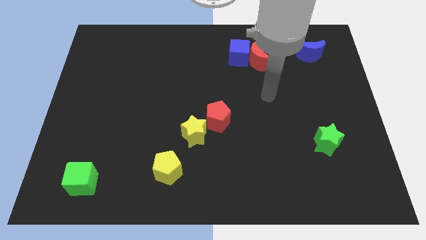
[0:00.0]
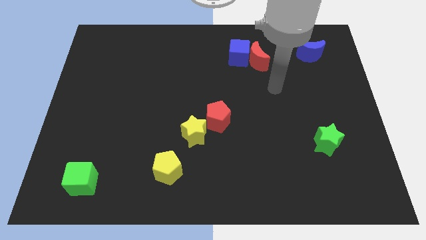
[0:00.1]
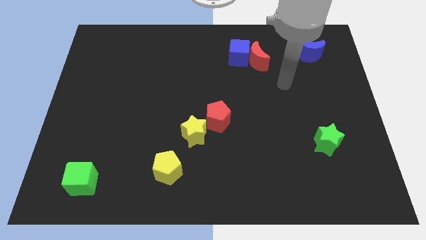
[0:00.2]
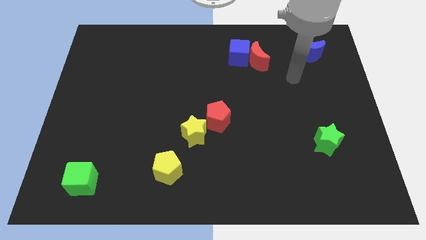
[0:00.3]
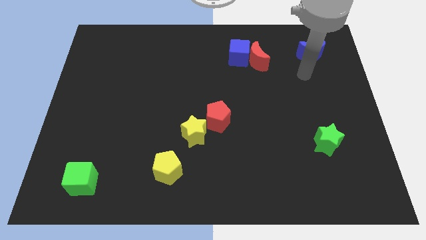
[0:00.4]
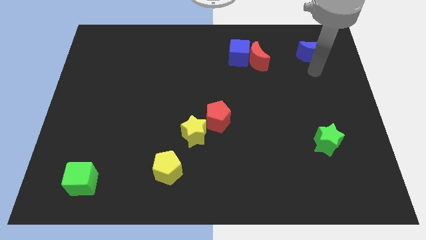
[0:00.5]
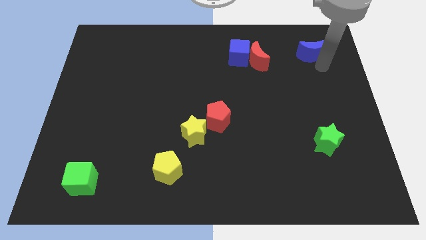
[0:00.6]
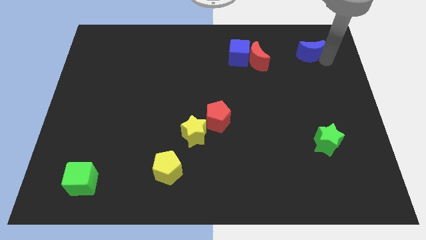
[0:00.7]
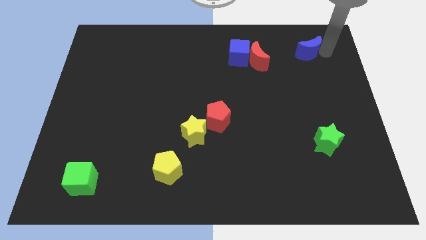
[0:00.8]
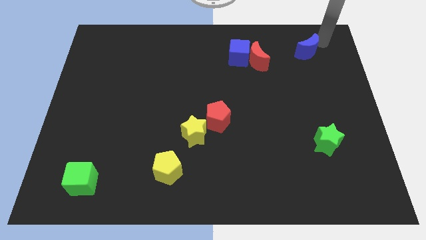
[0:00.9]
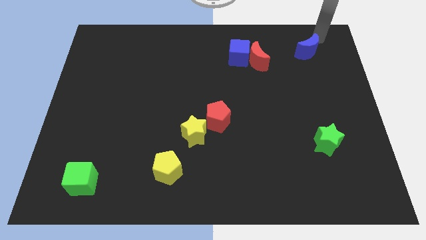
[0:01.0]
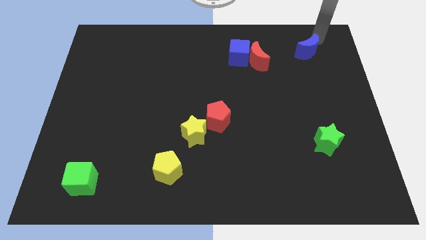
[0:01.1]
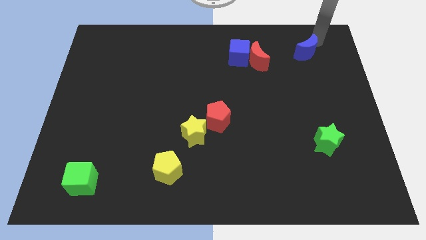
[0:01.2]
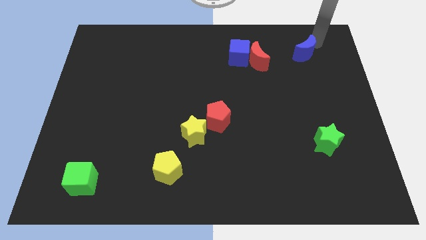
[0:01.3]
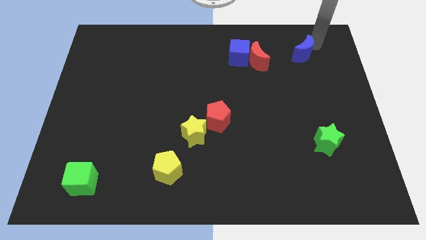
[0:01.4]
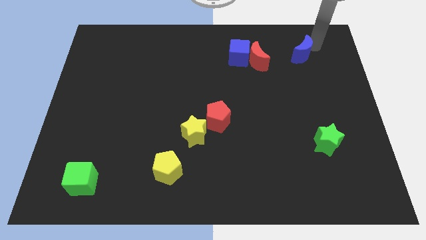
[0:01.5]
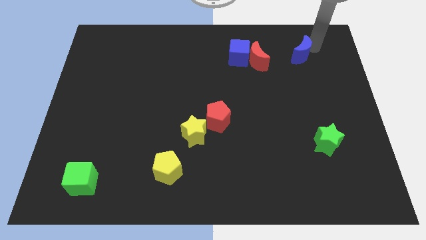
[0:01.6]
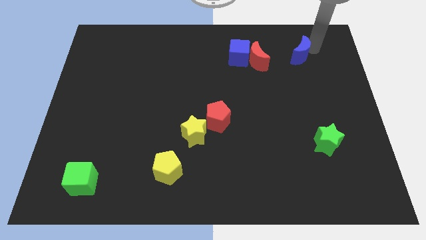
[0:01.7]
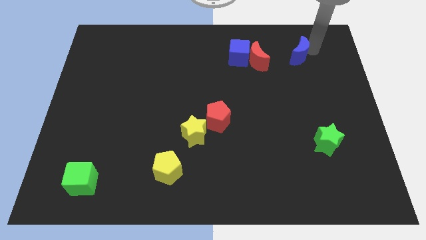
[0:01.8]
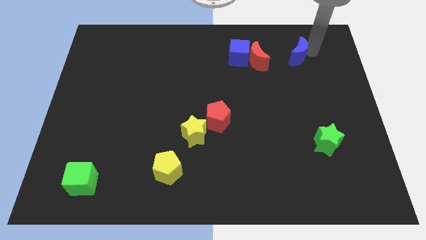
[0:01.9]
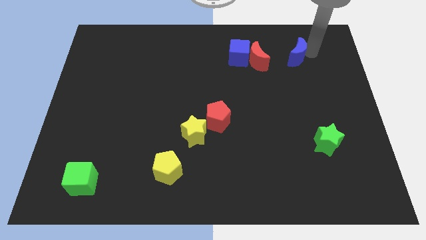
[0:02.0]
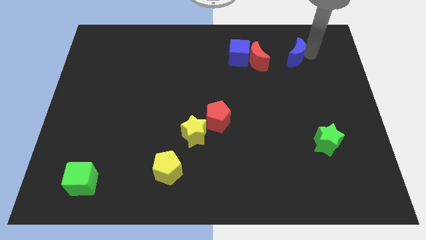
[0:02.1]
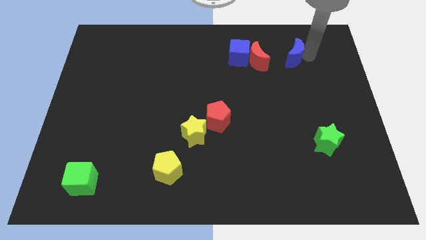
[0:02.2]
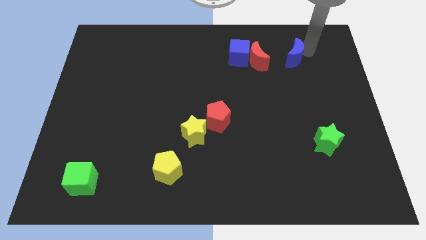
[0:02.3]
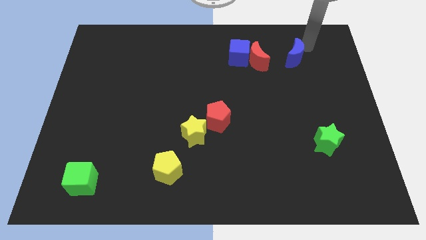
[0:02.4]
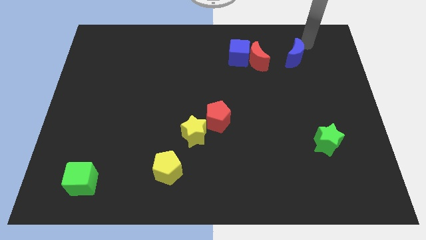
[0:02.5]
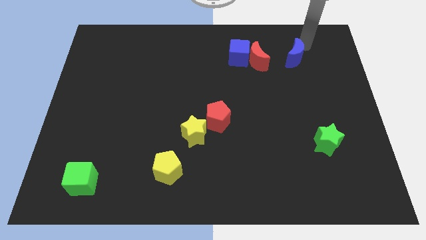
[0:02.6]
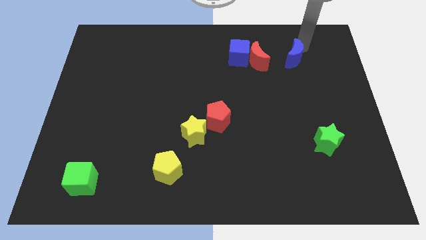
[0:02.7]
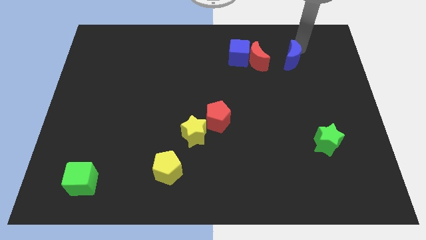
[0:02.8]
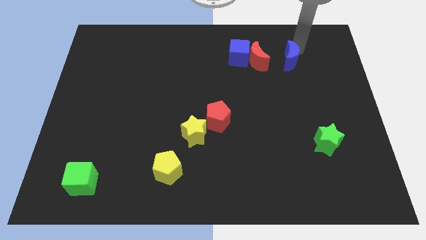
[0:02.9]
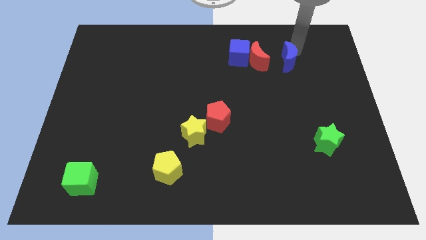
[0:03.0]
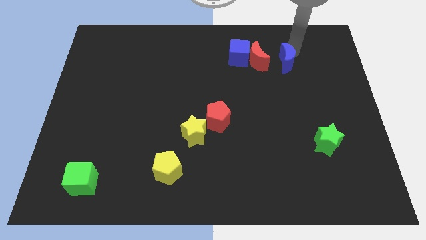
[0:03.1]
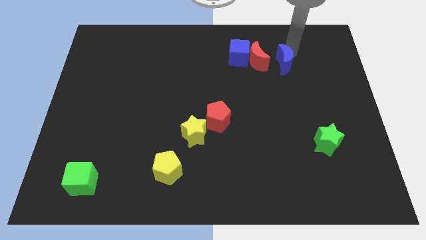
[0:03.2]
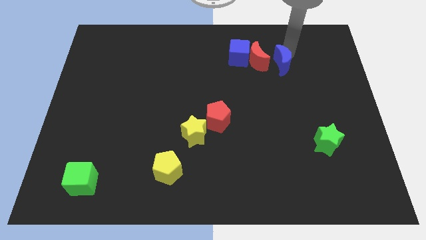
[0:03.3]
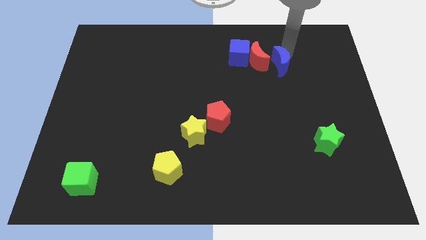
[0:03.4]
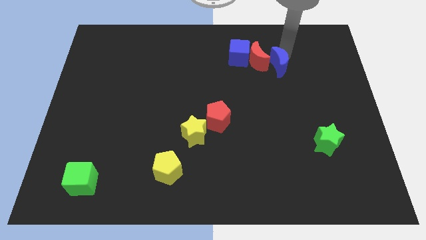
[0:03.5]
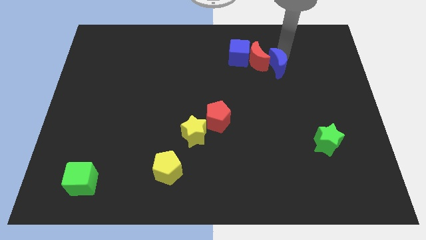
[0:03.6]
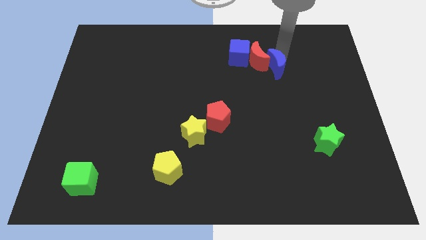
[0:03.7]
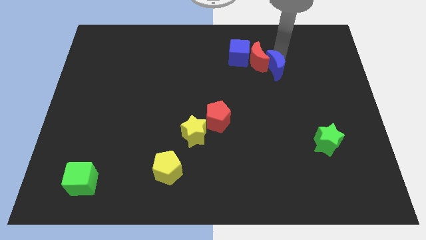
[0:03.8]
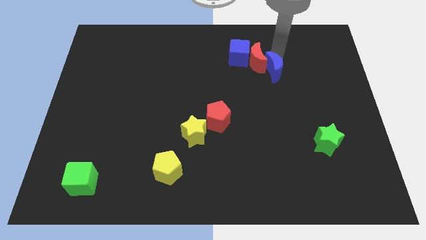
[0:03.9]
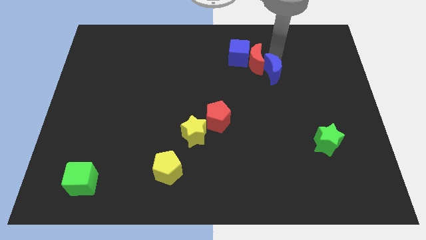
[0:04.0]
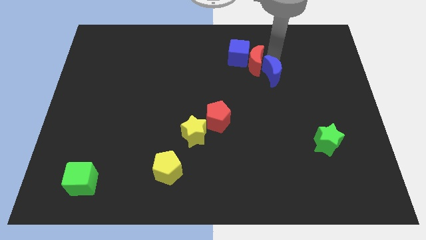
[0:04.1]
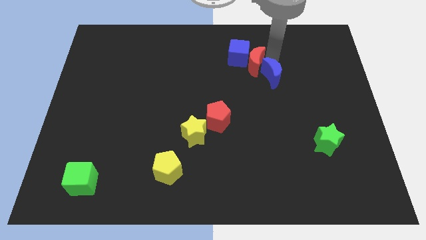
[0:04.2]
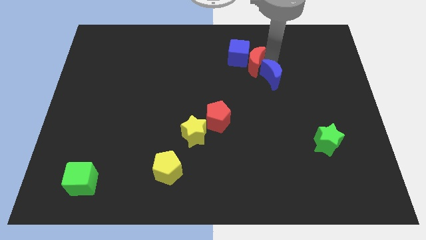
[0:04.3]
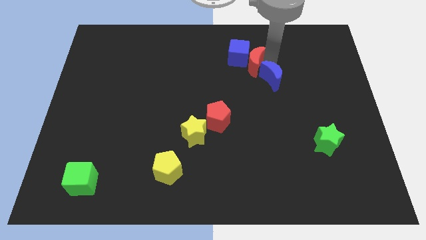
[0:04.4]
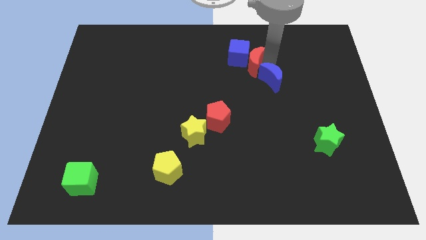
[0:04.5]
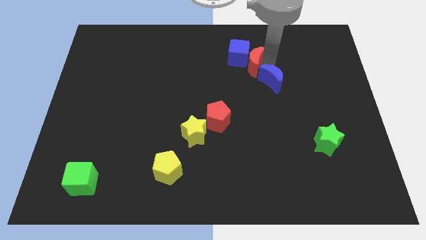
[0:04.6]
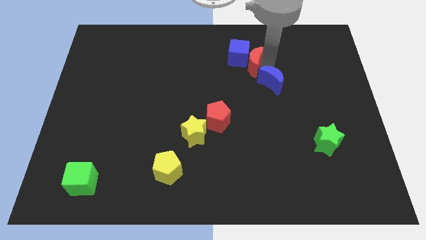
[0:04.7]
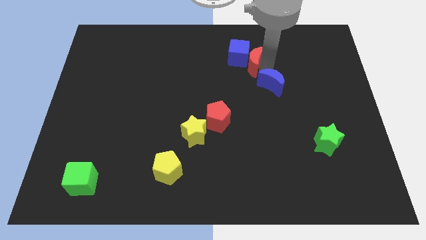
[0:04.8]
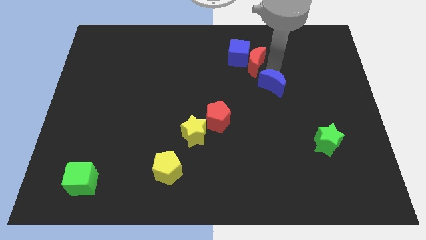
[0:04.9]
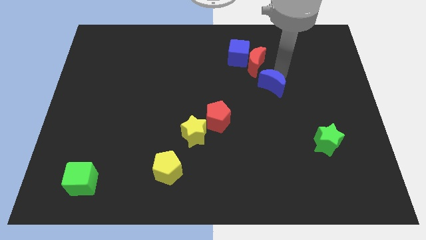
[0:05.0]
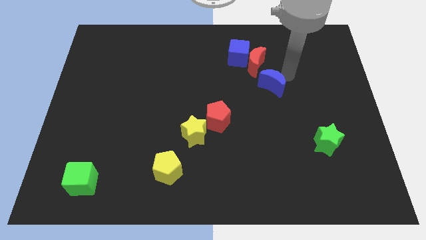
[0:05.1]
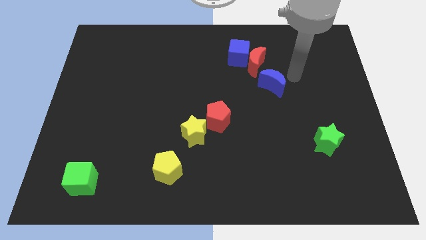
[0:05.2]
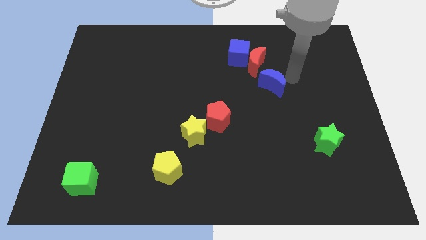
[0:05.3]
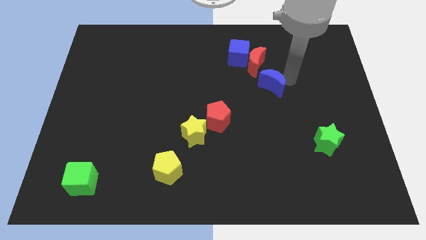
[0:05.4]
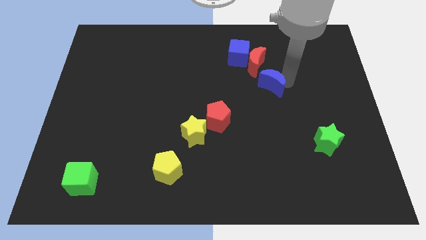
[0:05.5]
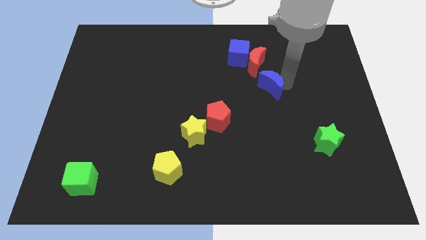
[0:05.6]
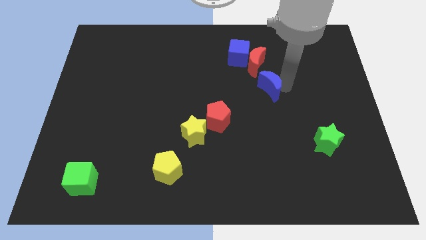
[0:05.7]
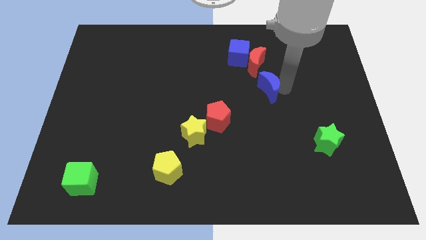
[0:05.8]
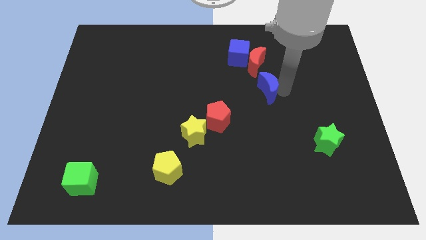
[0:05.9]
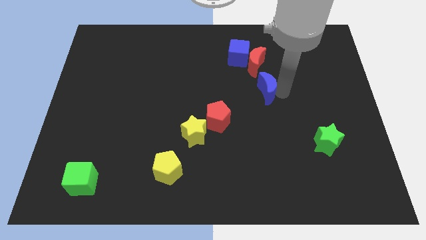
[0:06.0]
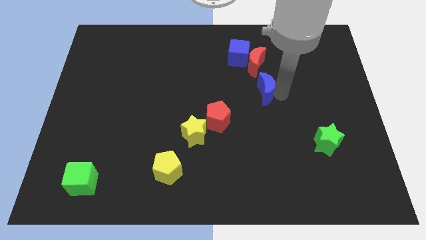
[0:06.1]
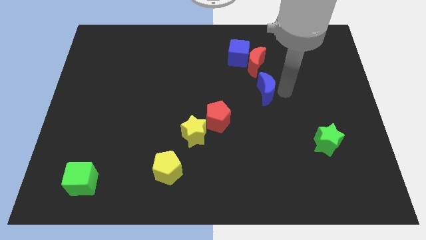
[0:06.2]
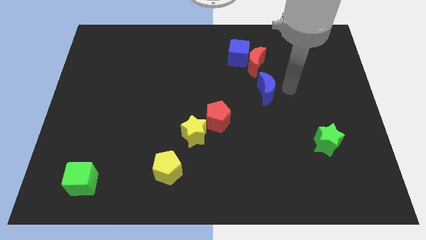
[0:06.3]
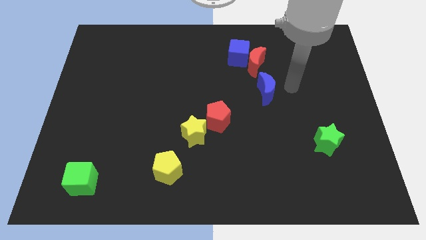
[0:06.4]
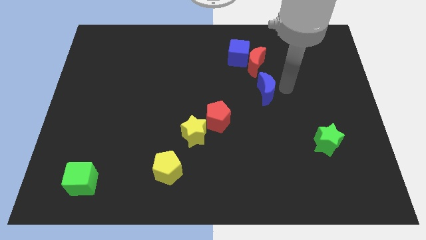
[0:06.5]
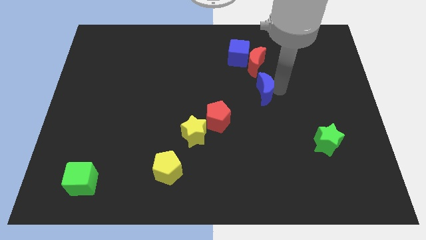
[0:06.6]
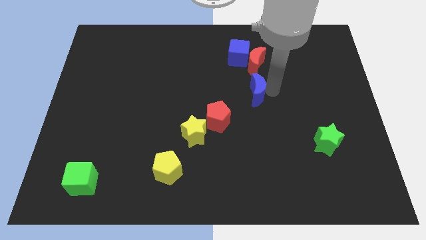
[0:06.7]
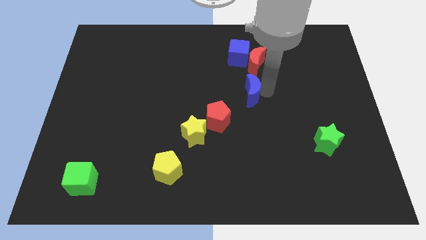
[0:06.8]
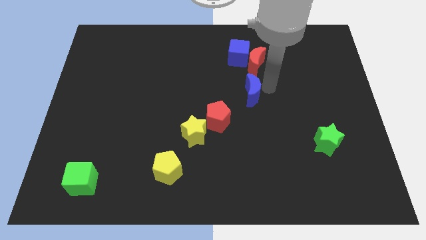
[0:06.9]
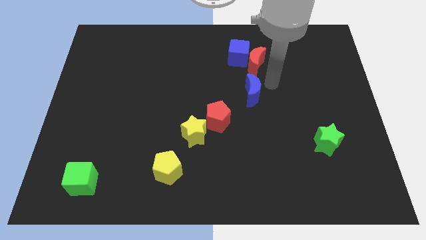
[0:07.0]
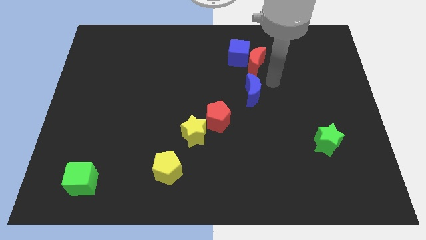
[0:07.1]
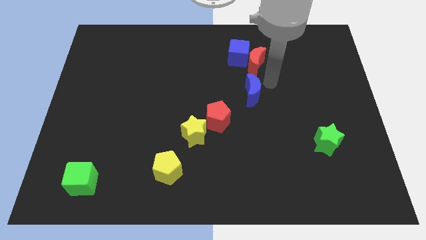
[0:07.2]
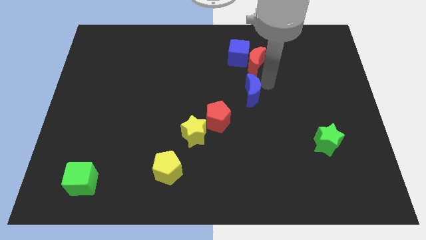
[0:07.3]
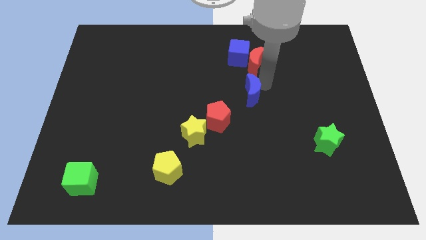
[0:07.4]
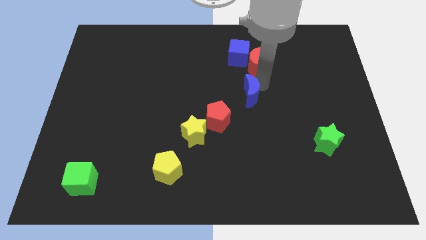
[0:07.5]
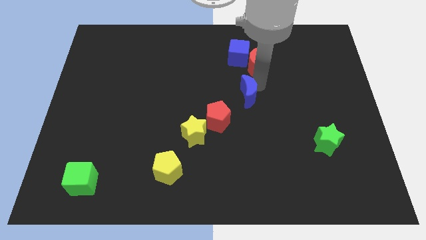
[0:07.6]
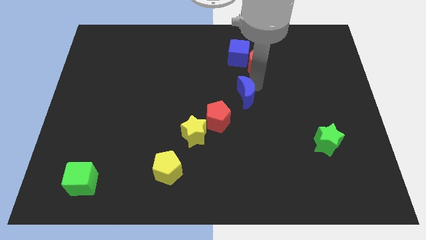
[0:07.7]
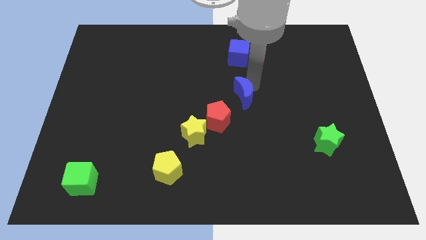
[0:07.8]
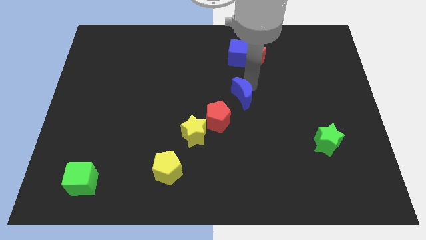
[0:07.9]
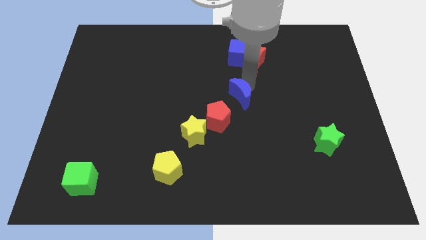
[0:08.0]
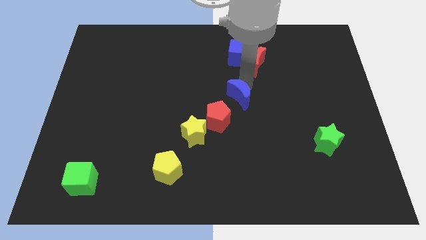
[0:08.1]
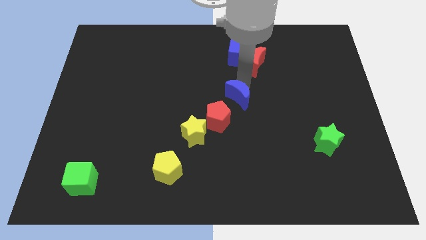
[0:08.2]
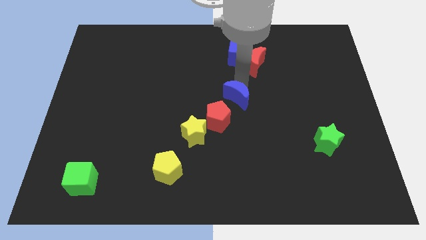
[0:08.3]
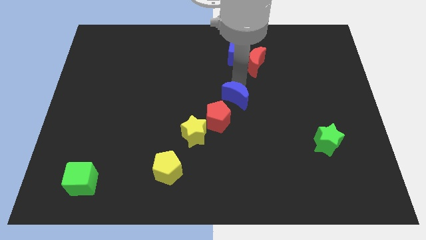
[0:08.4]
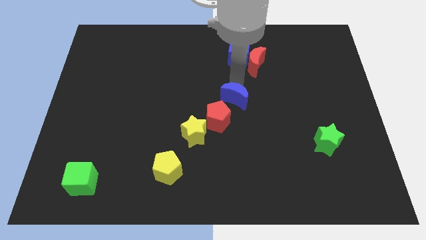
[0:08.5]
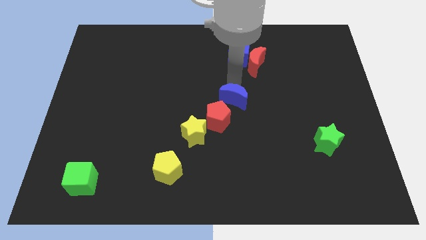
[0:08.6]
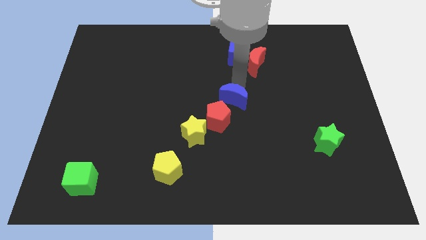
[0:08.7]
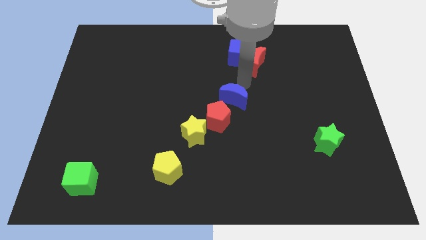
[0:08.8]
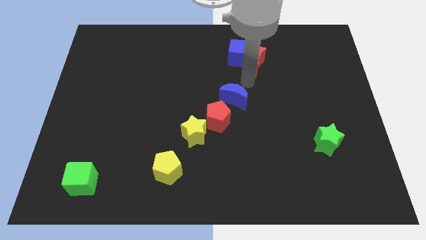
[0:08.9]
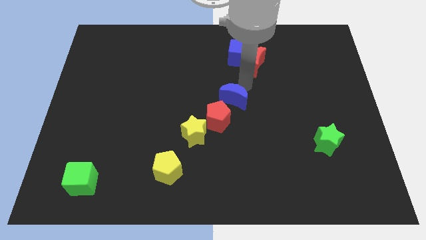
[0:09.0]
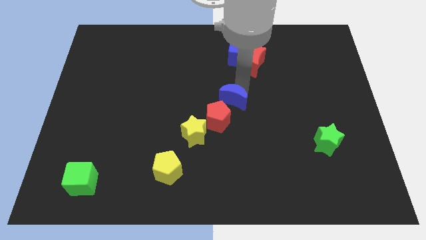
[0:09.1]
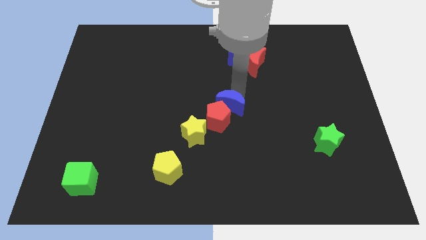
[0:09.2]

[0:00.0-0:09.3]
slide the blue moon towards the red pentagon
